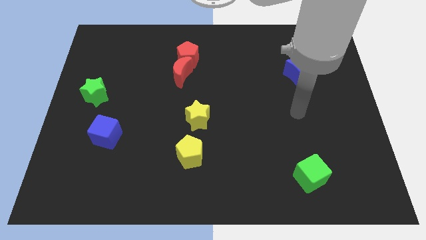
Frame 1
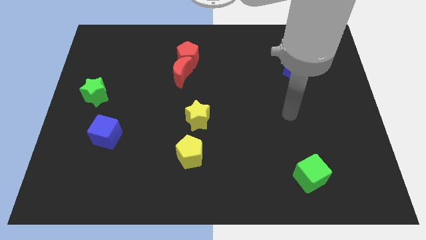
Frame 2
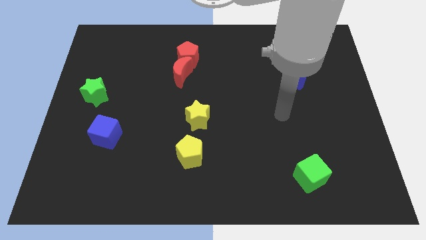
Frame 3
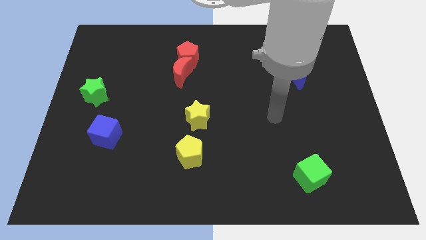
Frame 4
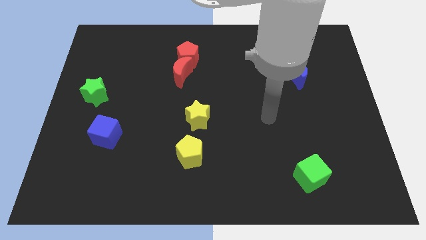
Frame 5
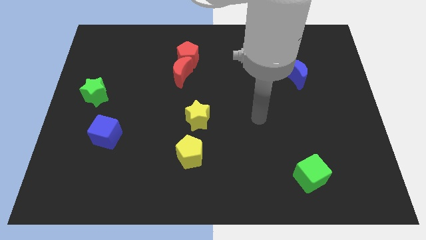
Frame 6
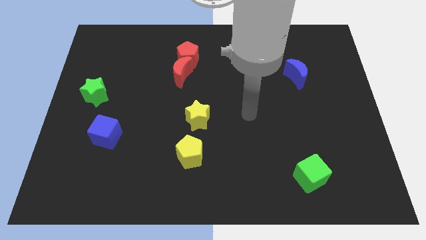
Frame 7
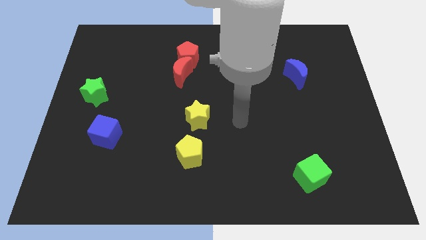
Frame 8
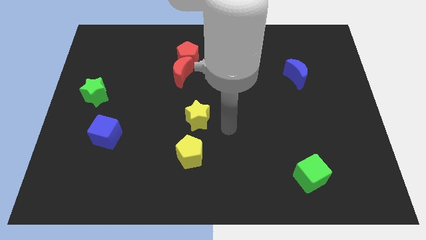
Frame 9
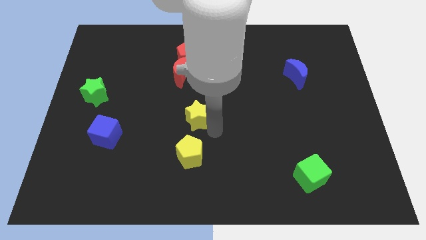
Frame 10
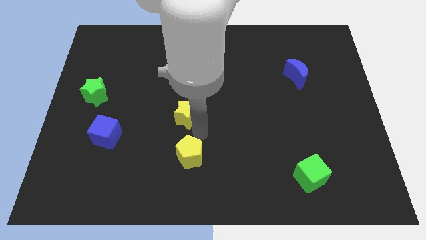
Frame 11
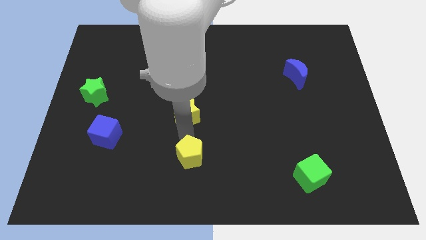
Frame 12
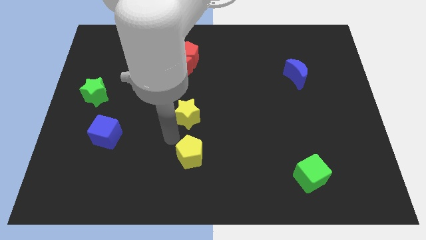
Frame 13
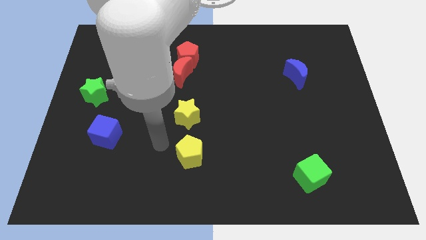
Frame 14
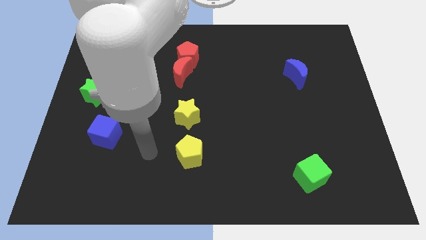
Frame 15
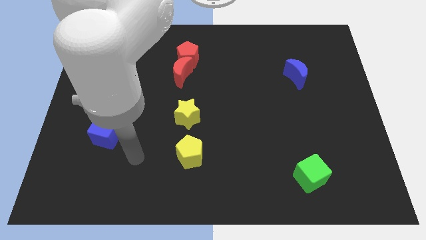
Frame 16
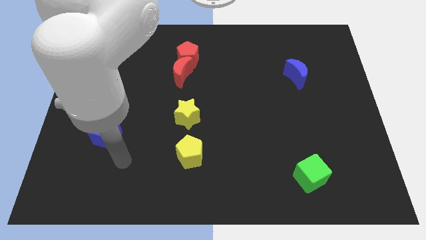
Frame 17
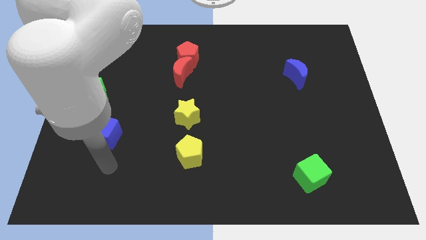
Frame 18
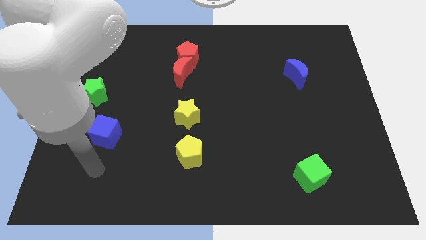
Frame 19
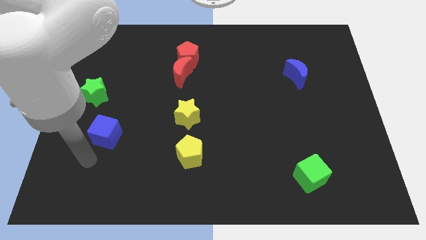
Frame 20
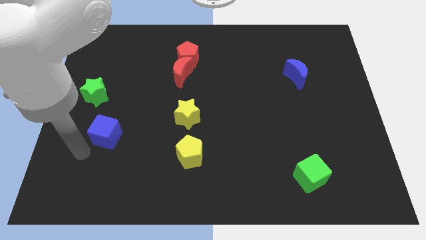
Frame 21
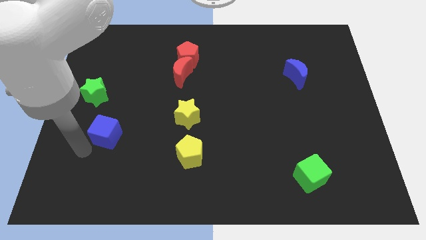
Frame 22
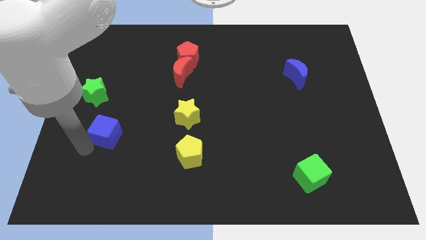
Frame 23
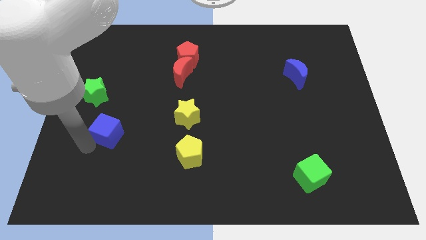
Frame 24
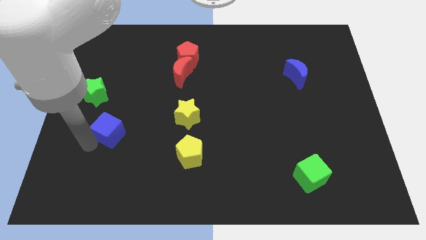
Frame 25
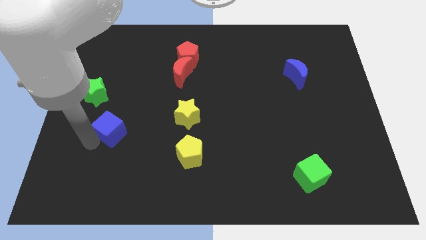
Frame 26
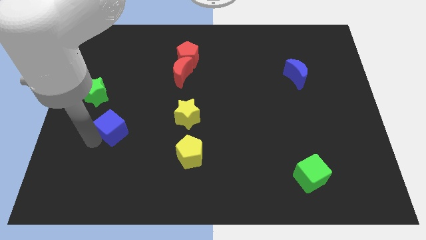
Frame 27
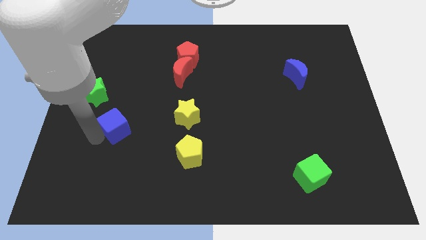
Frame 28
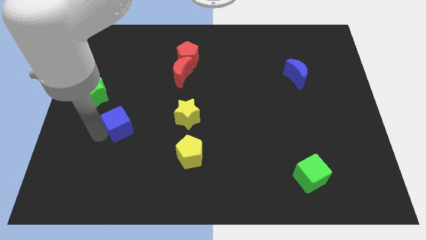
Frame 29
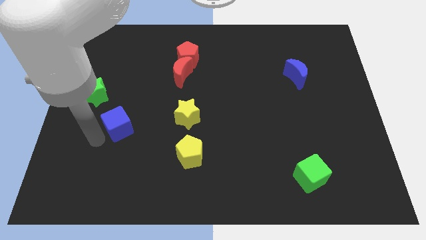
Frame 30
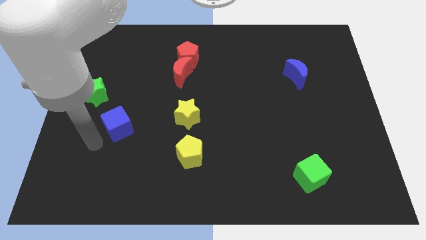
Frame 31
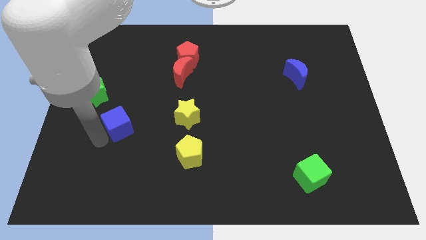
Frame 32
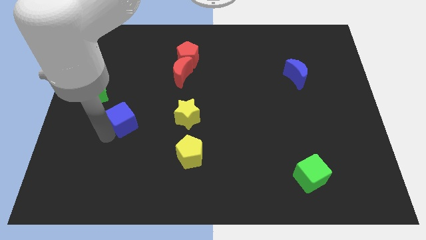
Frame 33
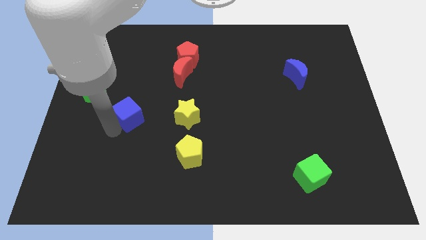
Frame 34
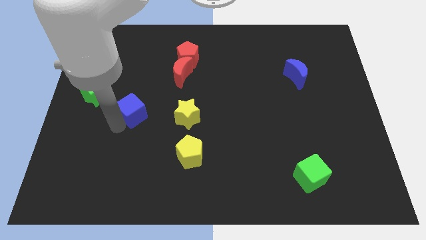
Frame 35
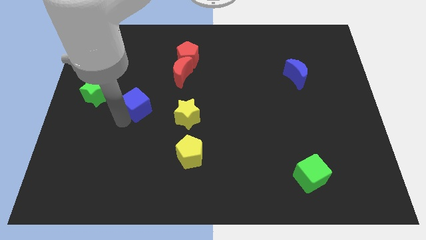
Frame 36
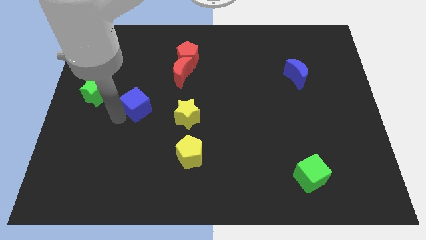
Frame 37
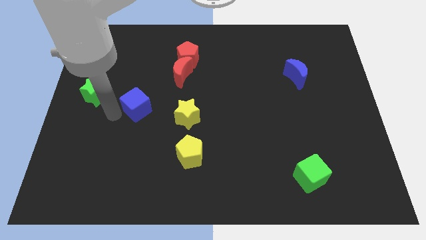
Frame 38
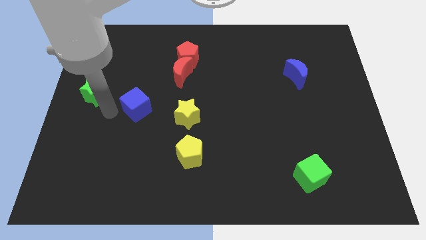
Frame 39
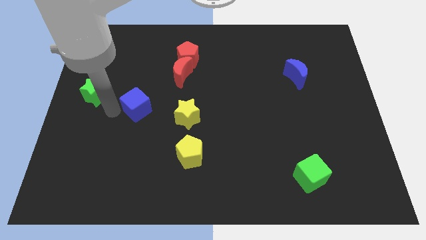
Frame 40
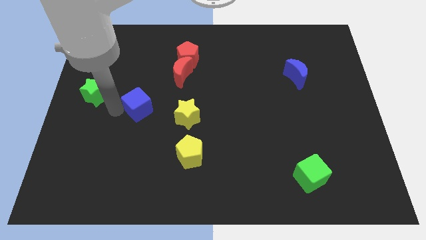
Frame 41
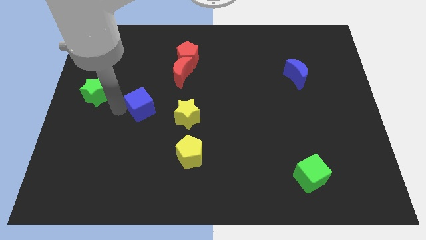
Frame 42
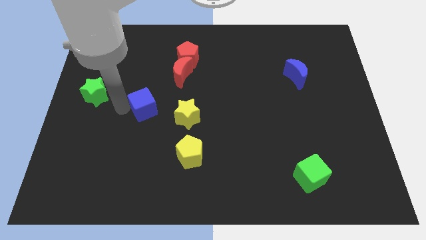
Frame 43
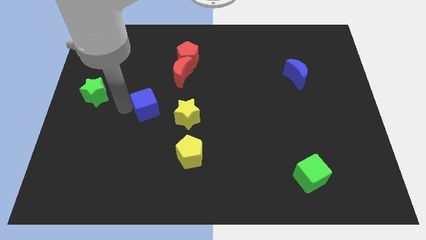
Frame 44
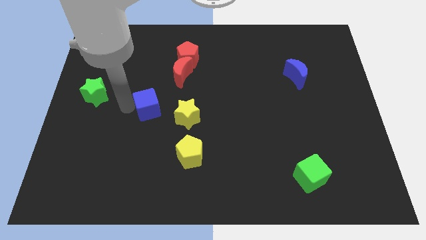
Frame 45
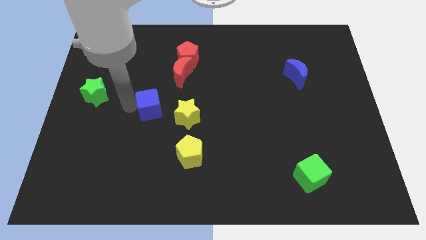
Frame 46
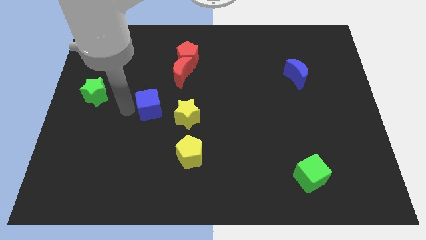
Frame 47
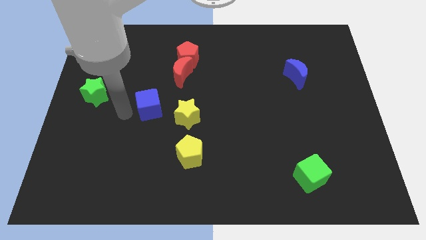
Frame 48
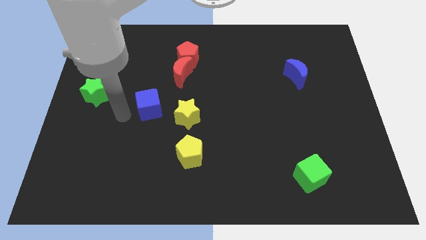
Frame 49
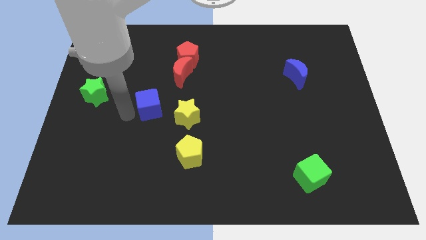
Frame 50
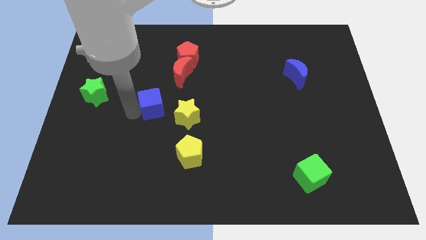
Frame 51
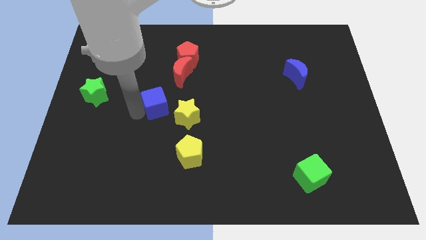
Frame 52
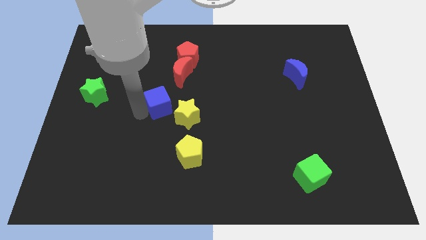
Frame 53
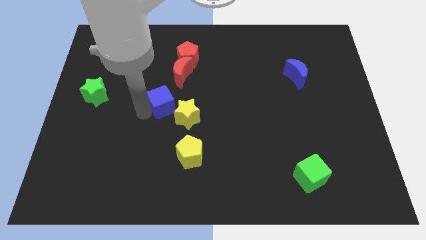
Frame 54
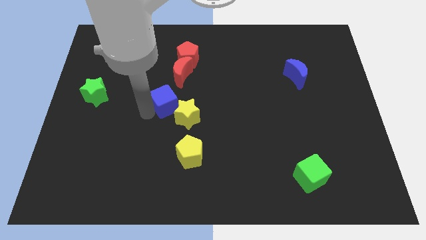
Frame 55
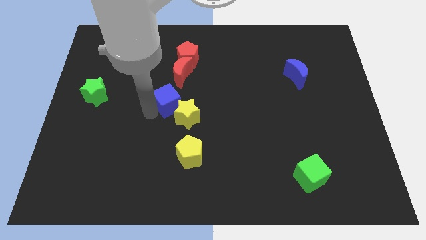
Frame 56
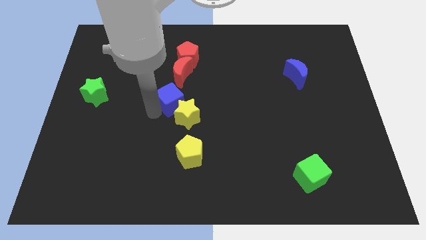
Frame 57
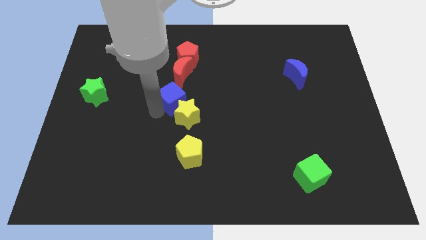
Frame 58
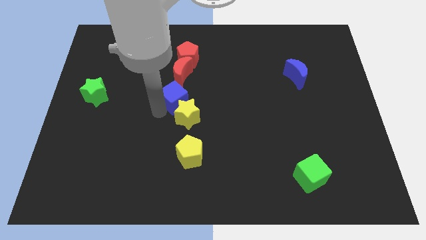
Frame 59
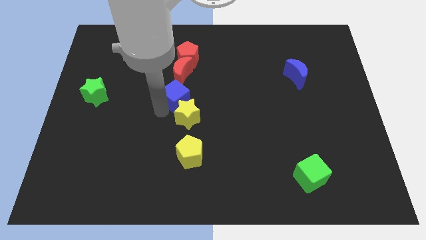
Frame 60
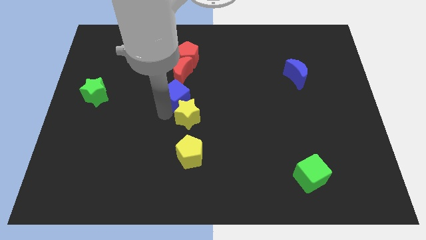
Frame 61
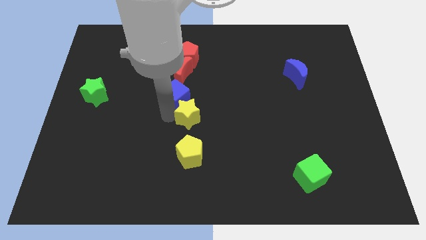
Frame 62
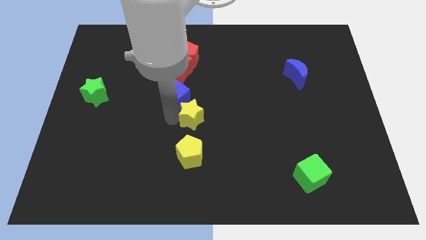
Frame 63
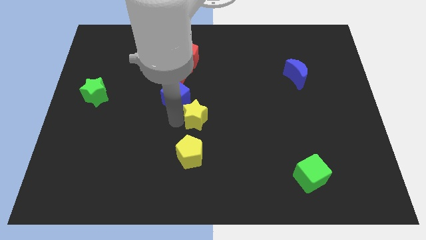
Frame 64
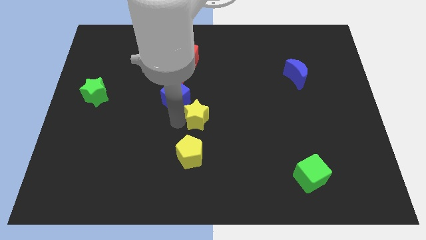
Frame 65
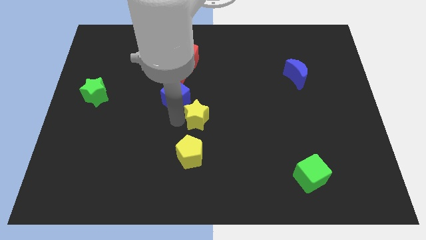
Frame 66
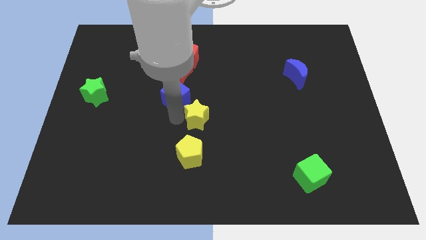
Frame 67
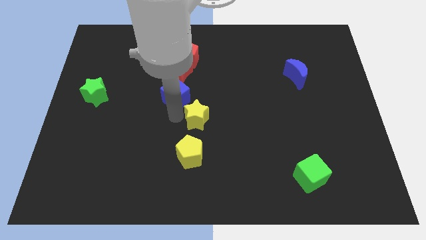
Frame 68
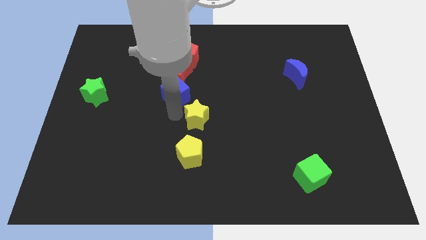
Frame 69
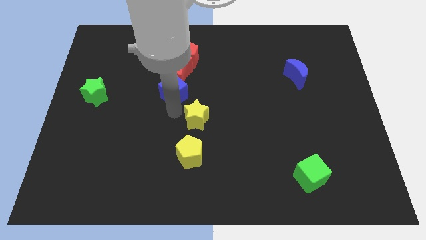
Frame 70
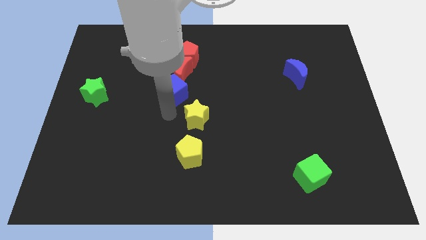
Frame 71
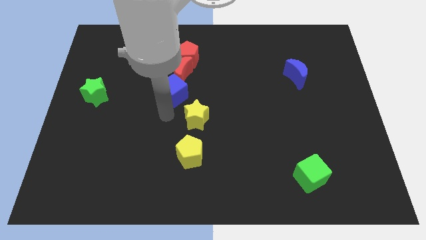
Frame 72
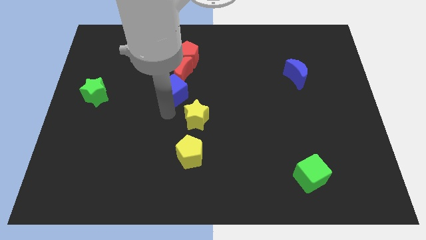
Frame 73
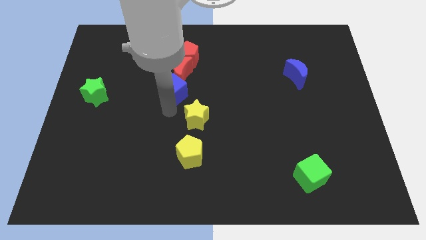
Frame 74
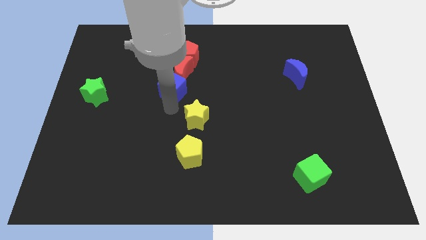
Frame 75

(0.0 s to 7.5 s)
slide the blue cube towards the red moon
